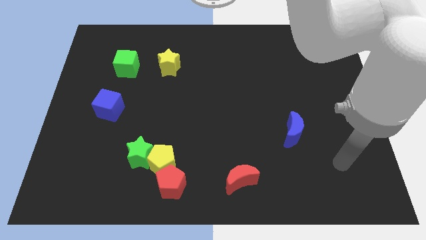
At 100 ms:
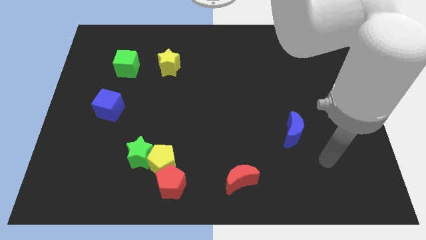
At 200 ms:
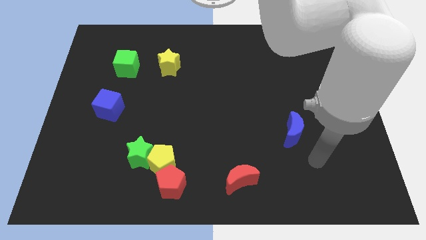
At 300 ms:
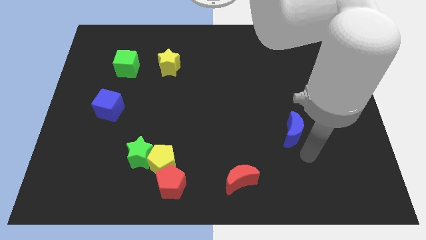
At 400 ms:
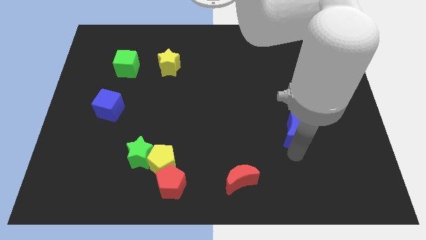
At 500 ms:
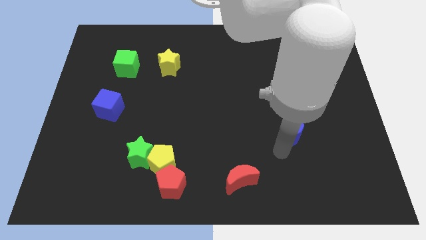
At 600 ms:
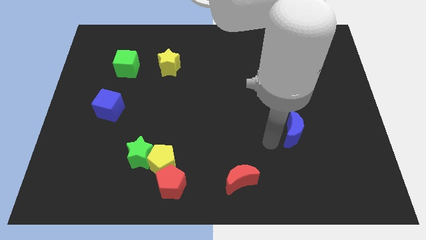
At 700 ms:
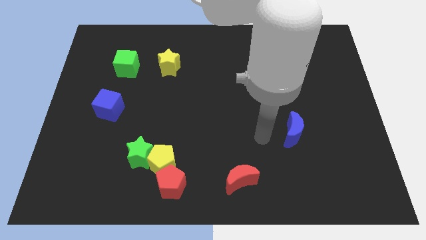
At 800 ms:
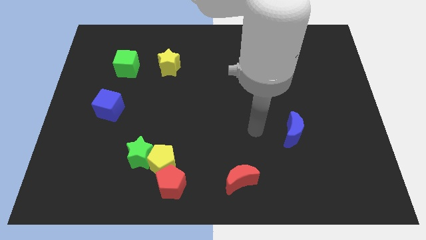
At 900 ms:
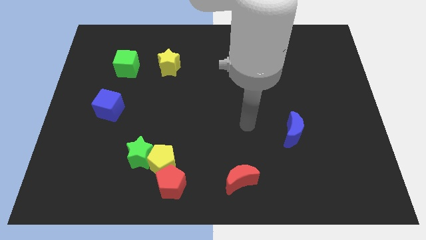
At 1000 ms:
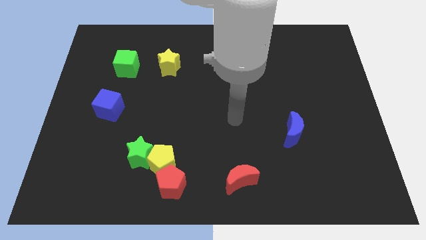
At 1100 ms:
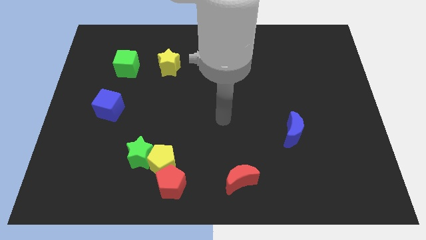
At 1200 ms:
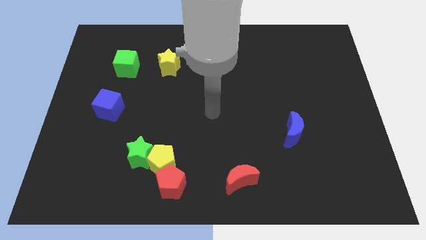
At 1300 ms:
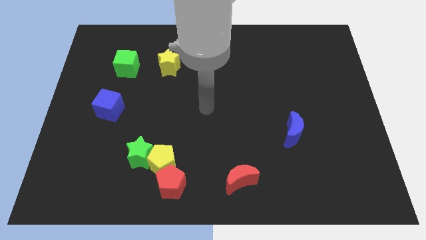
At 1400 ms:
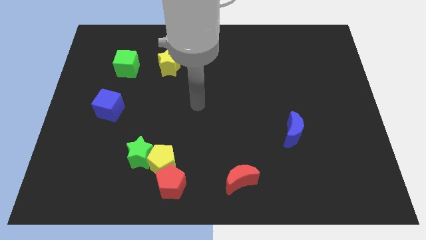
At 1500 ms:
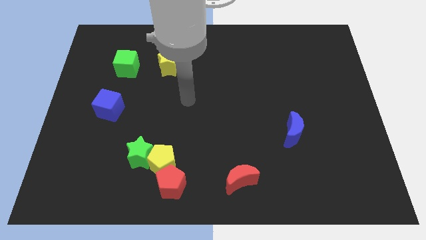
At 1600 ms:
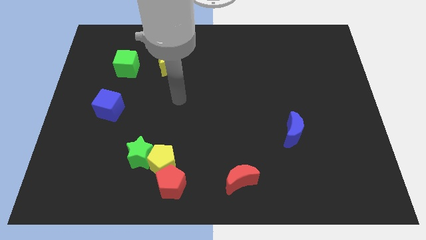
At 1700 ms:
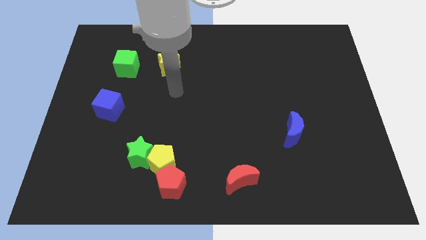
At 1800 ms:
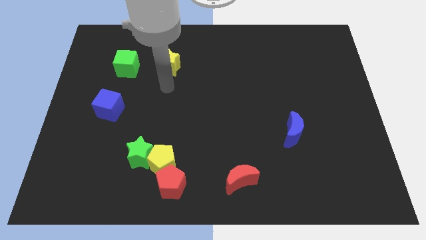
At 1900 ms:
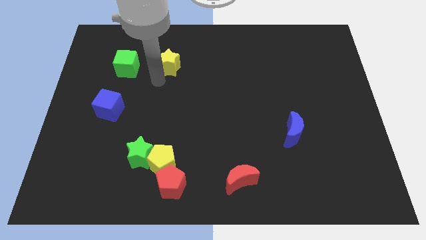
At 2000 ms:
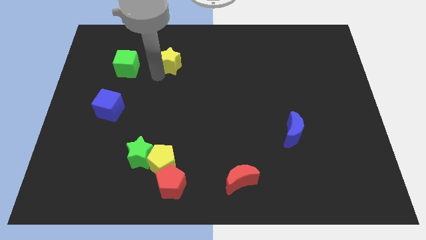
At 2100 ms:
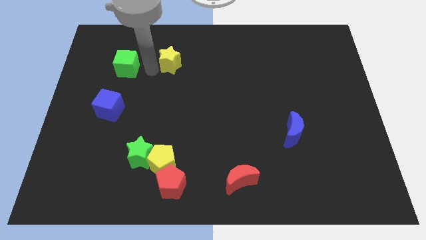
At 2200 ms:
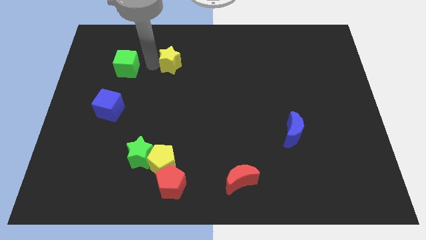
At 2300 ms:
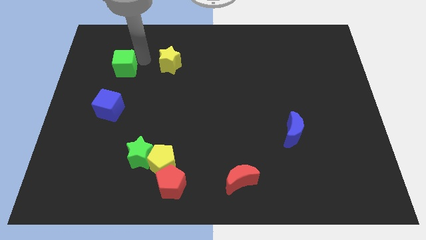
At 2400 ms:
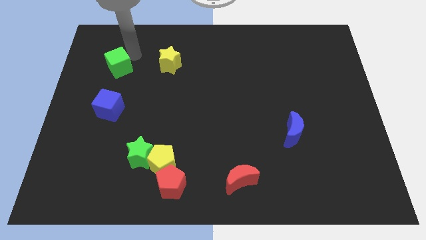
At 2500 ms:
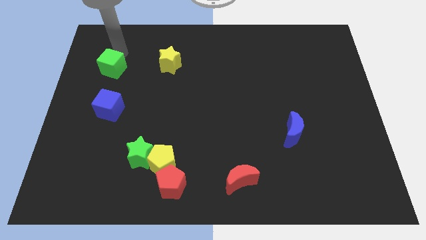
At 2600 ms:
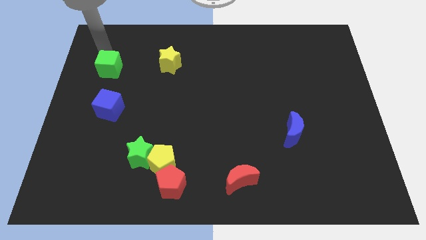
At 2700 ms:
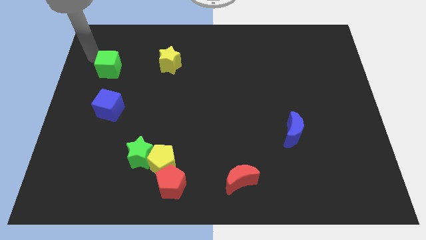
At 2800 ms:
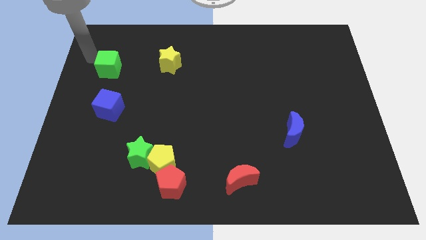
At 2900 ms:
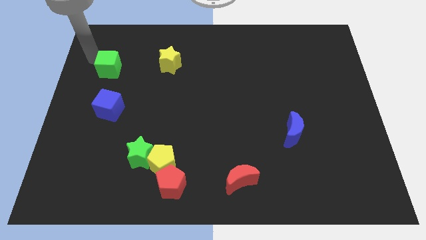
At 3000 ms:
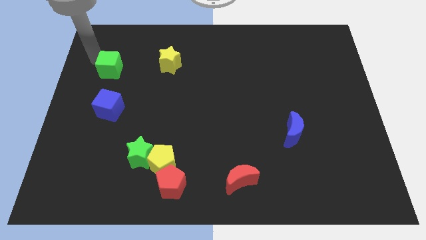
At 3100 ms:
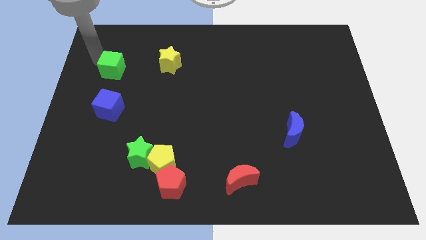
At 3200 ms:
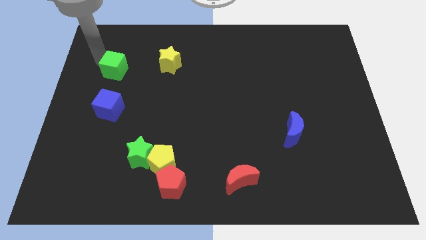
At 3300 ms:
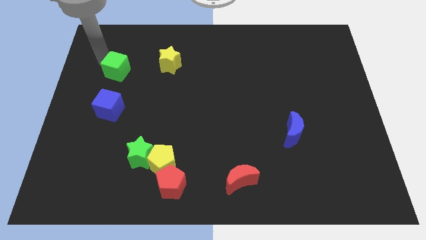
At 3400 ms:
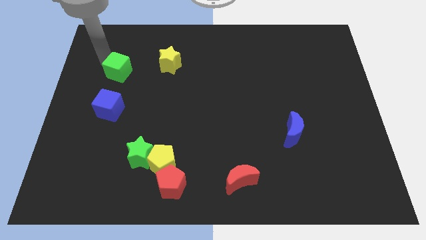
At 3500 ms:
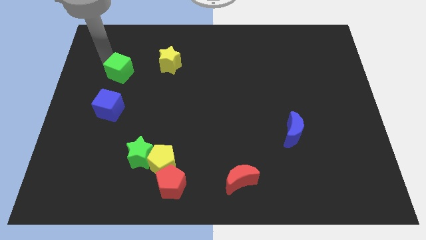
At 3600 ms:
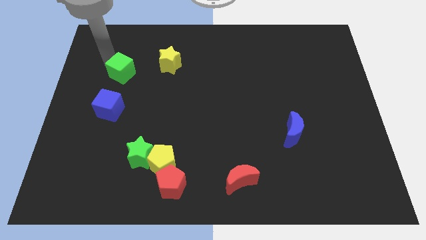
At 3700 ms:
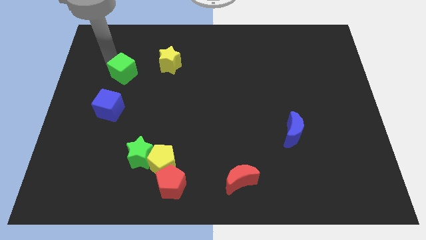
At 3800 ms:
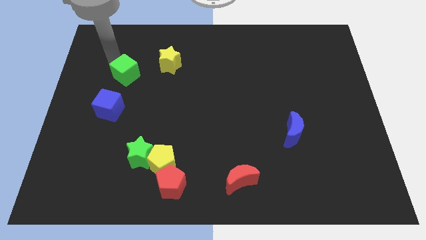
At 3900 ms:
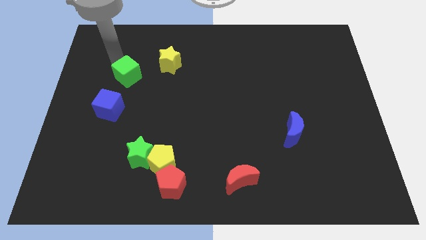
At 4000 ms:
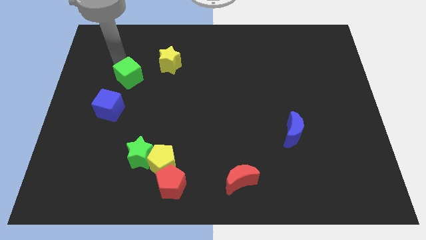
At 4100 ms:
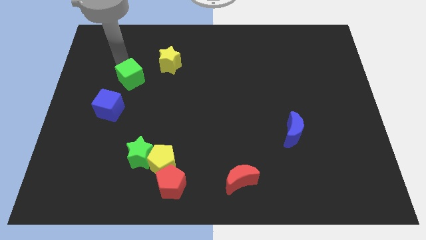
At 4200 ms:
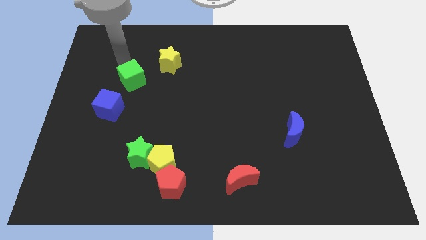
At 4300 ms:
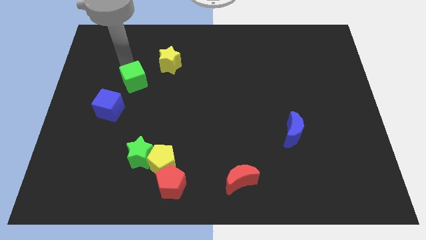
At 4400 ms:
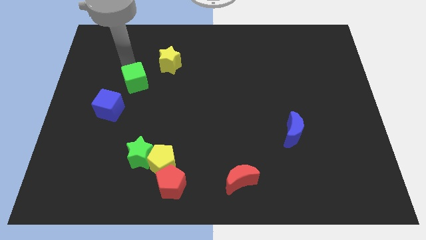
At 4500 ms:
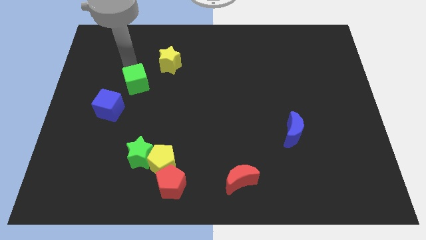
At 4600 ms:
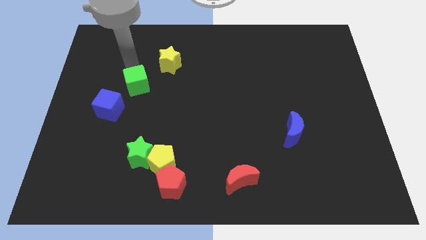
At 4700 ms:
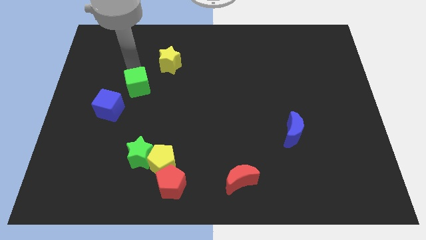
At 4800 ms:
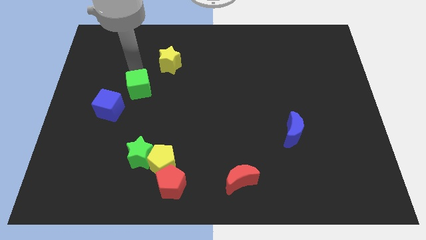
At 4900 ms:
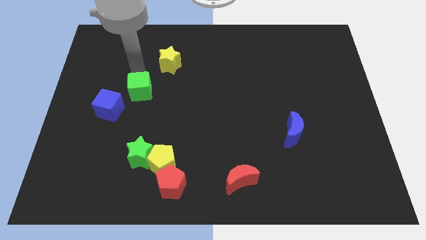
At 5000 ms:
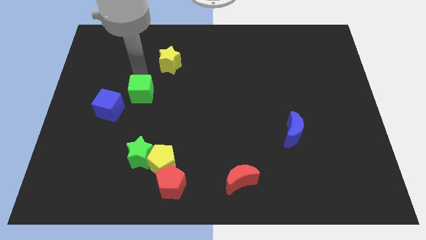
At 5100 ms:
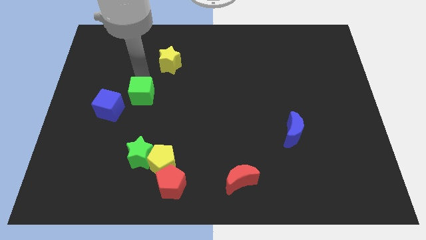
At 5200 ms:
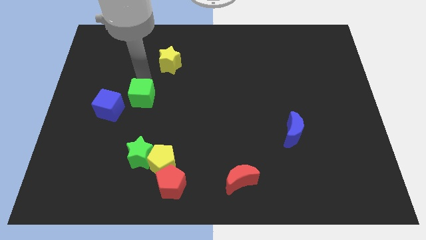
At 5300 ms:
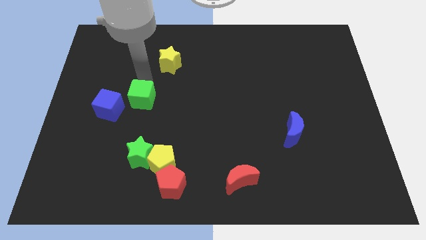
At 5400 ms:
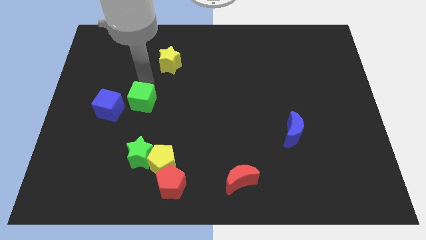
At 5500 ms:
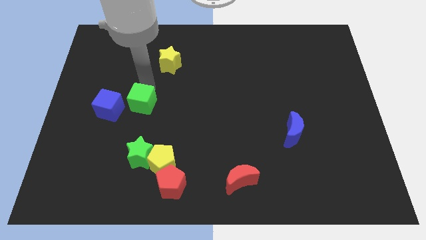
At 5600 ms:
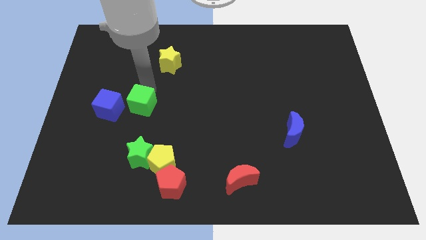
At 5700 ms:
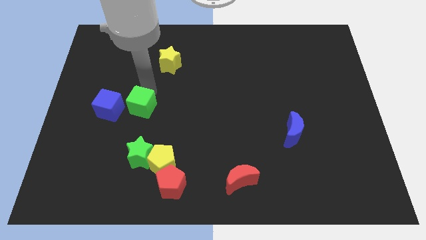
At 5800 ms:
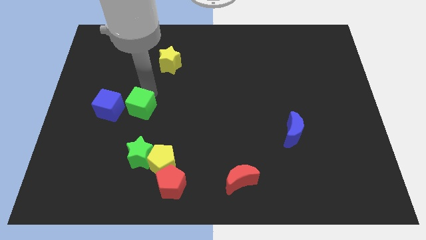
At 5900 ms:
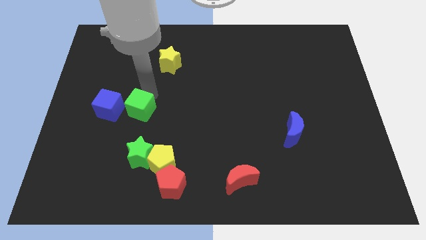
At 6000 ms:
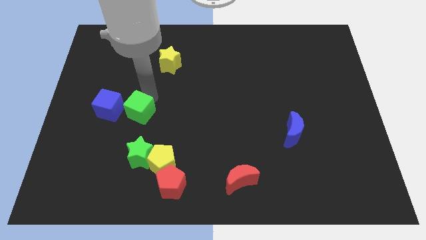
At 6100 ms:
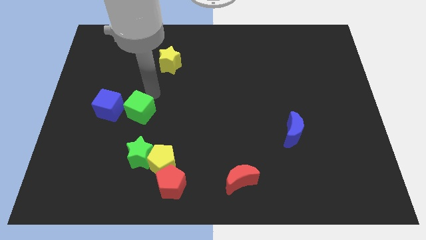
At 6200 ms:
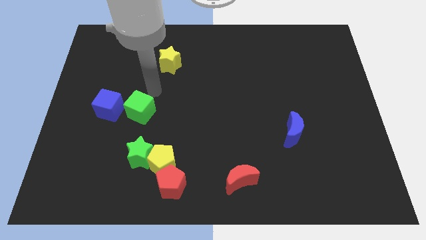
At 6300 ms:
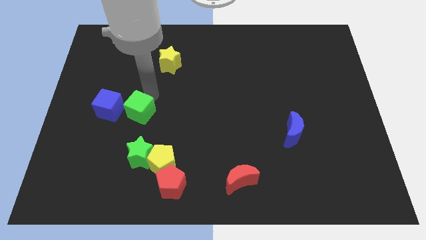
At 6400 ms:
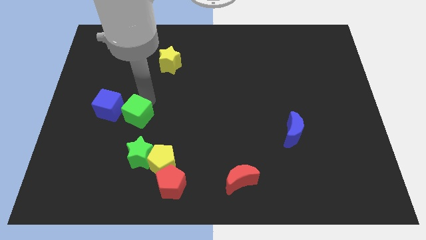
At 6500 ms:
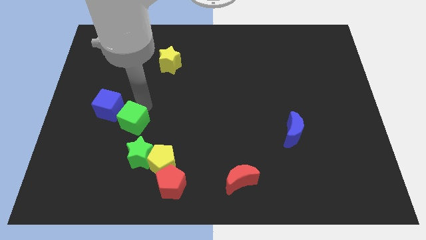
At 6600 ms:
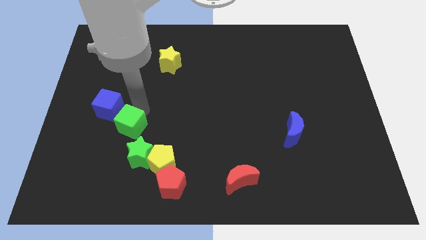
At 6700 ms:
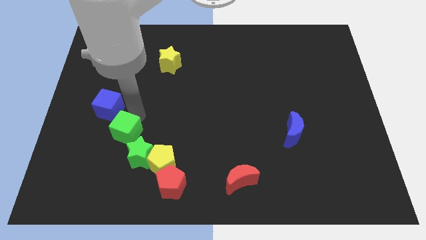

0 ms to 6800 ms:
move the green cube down

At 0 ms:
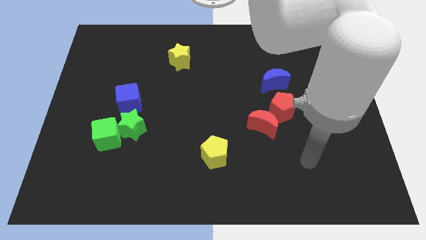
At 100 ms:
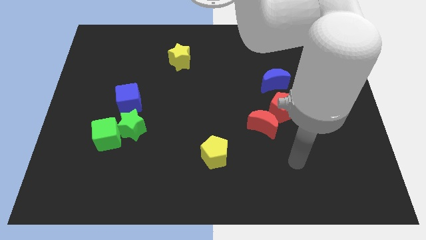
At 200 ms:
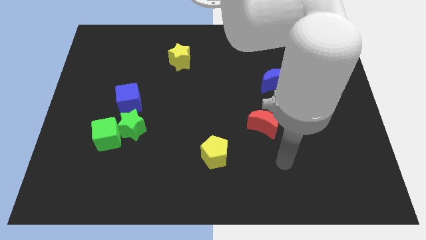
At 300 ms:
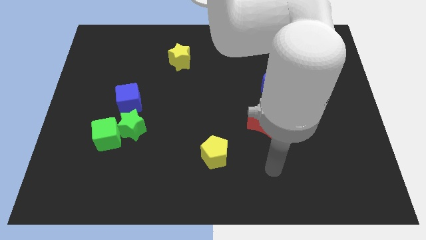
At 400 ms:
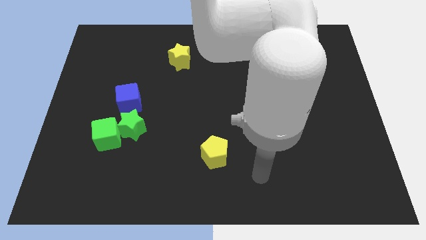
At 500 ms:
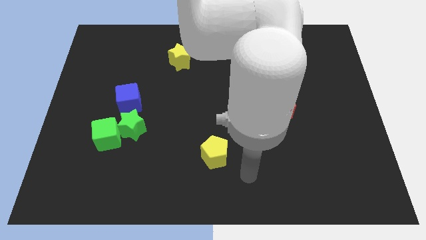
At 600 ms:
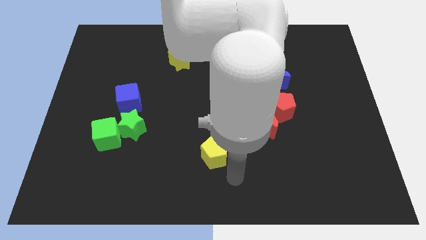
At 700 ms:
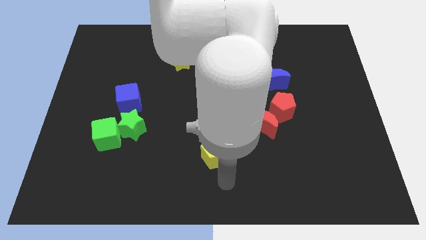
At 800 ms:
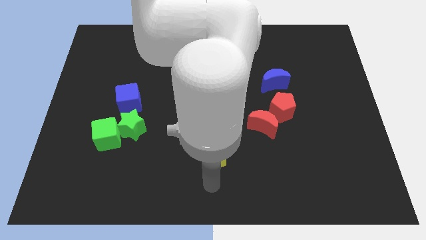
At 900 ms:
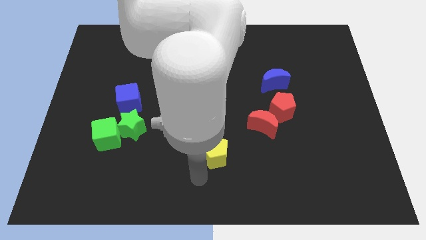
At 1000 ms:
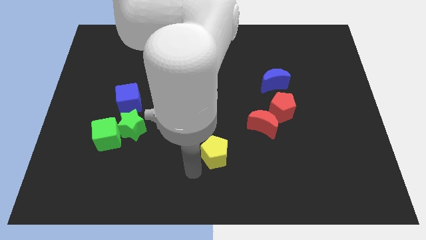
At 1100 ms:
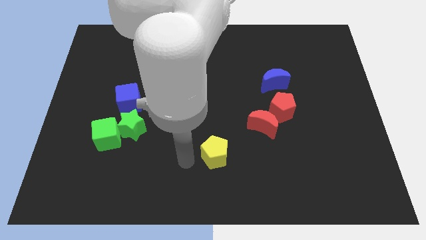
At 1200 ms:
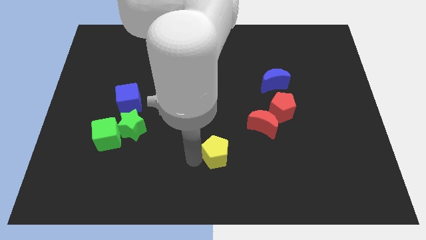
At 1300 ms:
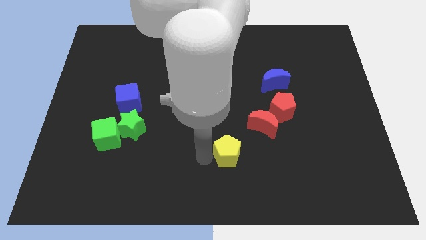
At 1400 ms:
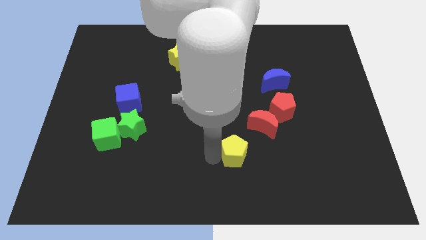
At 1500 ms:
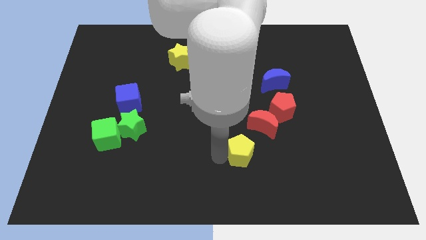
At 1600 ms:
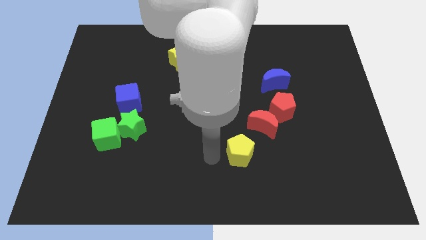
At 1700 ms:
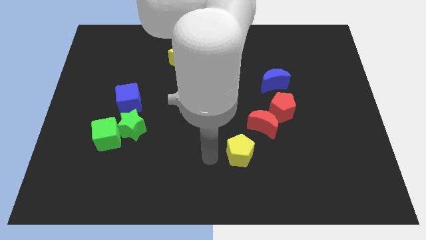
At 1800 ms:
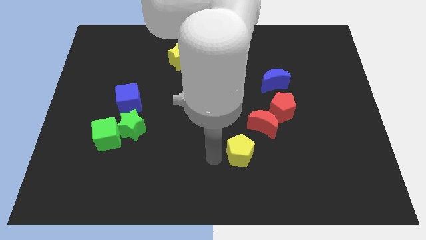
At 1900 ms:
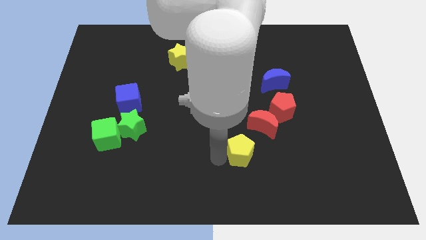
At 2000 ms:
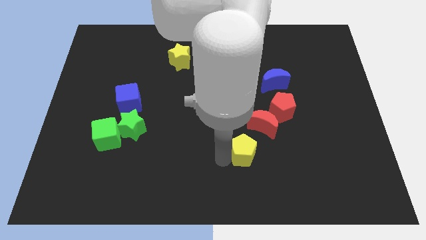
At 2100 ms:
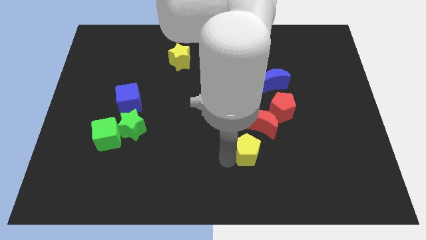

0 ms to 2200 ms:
slightly slide the yellow pentagon to the right
